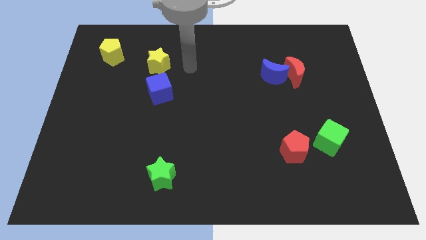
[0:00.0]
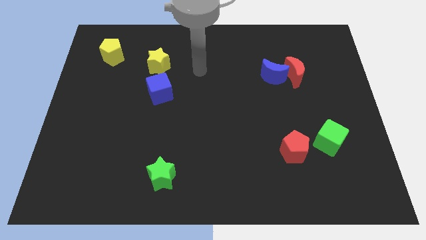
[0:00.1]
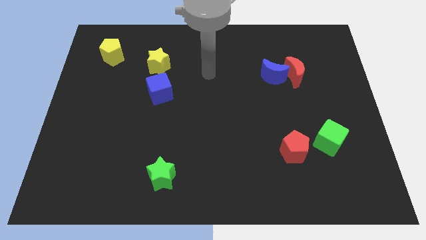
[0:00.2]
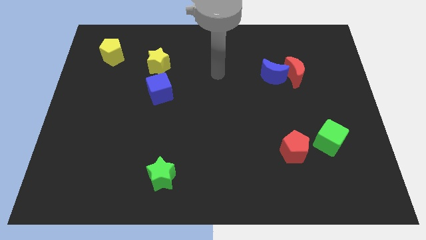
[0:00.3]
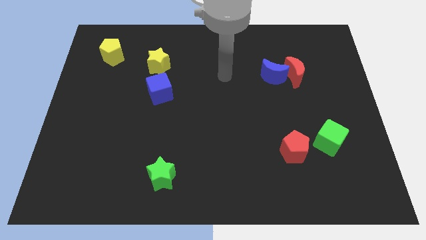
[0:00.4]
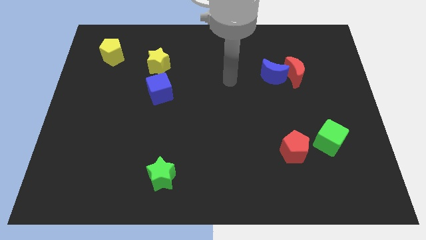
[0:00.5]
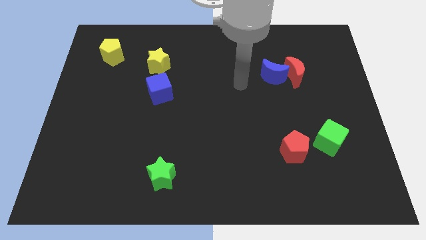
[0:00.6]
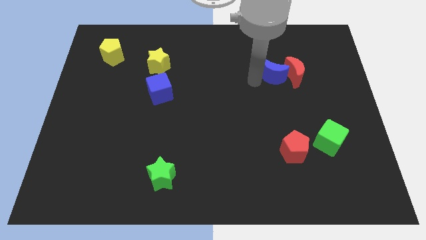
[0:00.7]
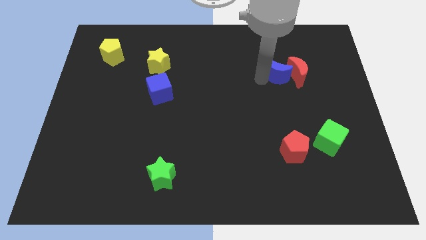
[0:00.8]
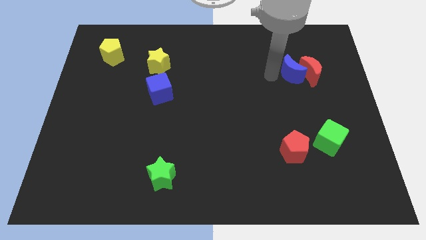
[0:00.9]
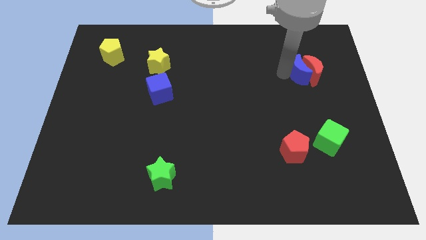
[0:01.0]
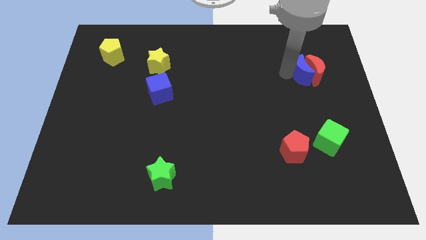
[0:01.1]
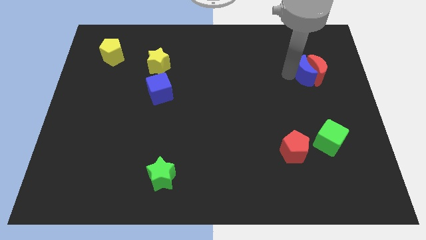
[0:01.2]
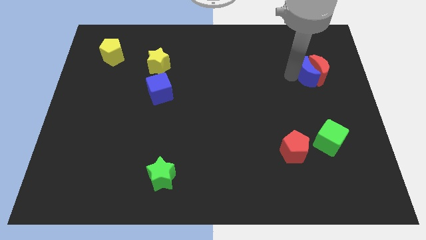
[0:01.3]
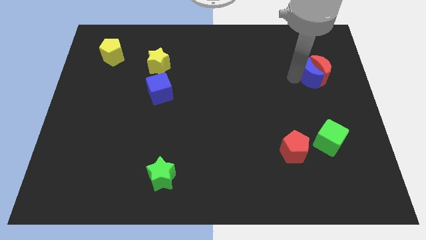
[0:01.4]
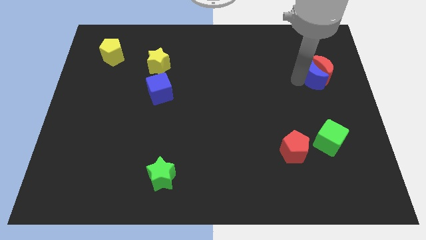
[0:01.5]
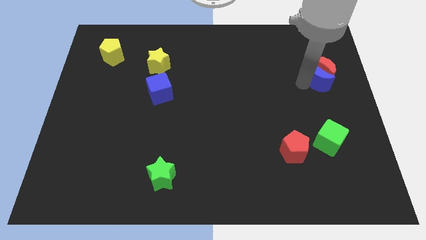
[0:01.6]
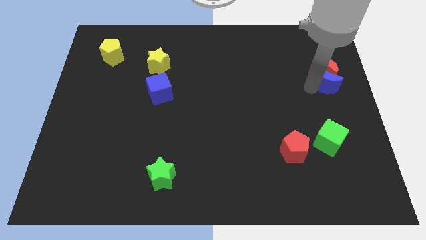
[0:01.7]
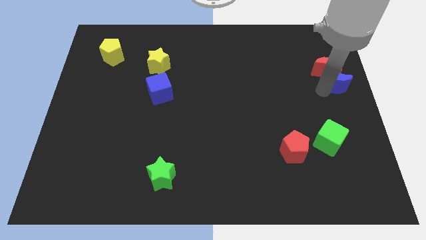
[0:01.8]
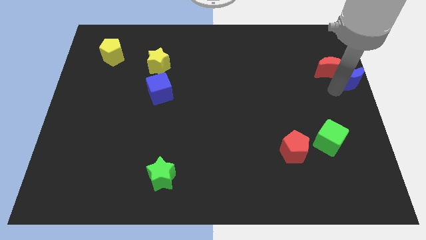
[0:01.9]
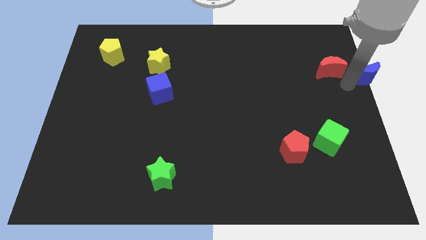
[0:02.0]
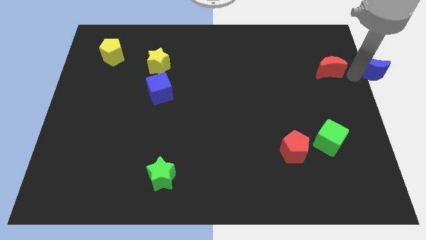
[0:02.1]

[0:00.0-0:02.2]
pull the red moon apart from the blue moon

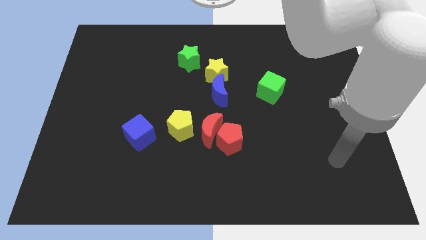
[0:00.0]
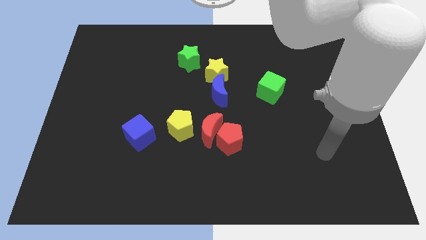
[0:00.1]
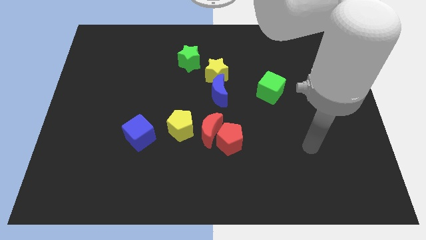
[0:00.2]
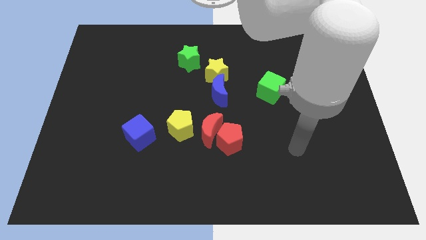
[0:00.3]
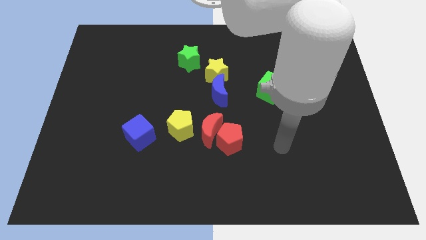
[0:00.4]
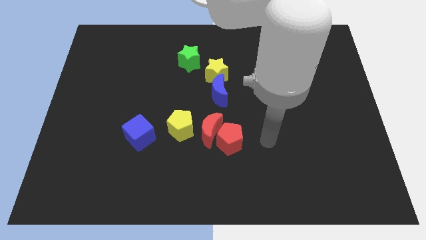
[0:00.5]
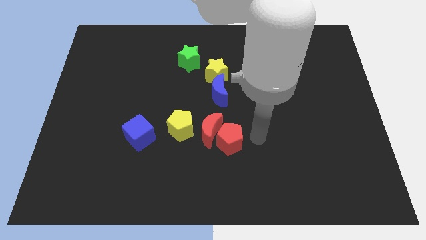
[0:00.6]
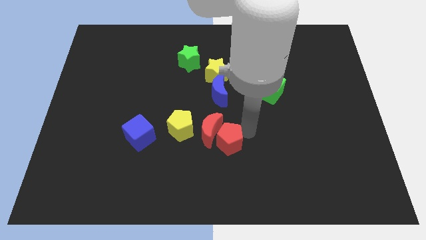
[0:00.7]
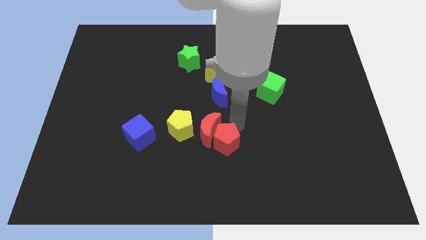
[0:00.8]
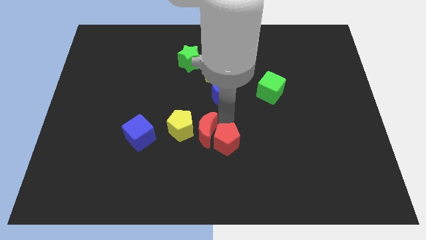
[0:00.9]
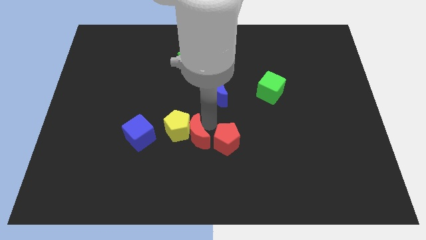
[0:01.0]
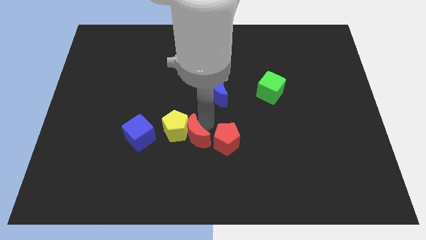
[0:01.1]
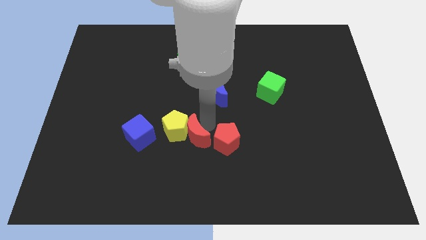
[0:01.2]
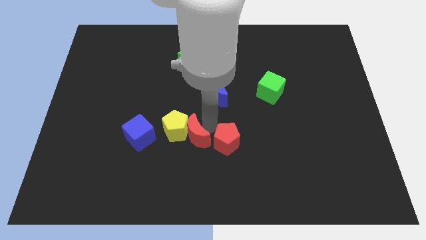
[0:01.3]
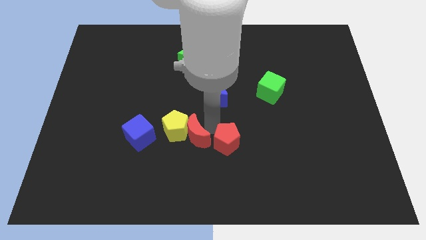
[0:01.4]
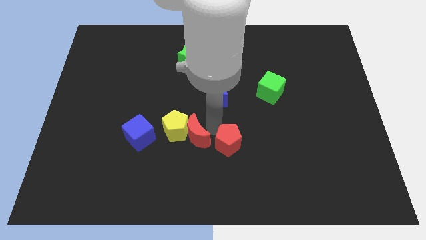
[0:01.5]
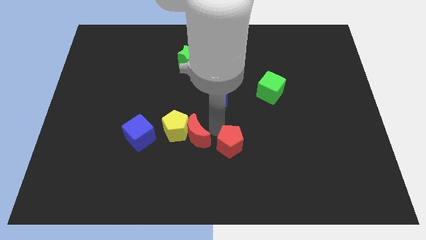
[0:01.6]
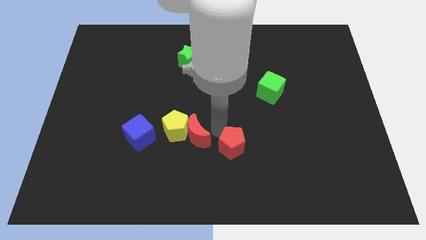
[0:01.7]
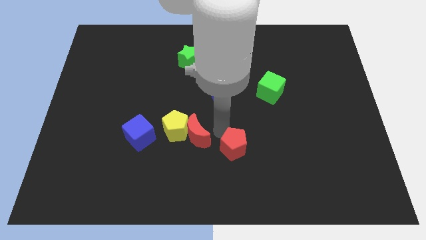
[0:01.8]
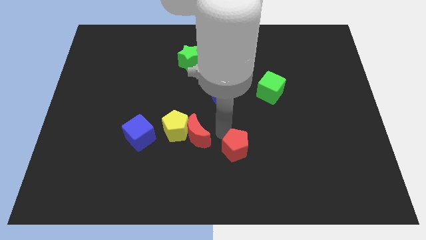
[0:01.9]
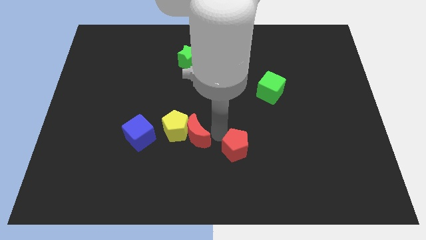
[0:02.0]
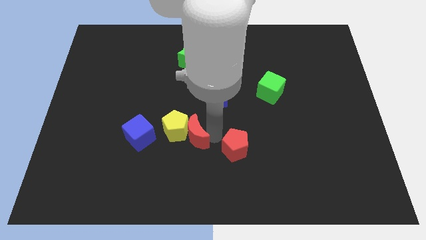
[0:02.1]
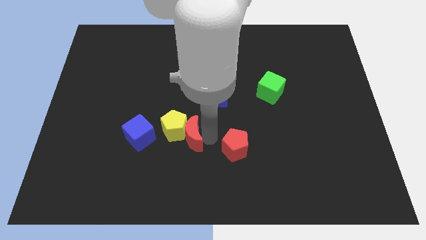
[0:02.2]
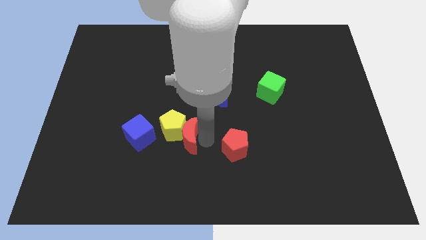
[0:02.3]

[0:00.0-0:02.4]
separate the red pentagon from the red moon

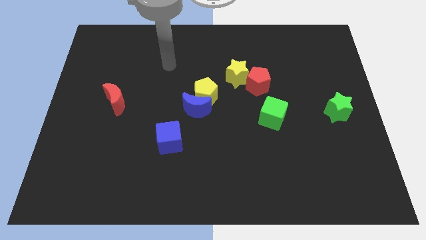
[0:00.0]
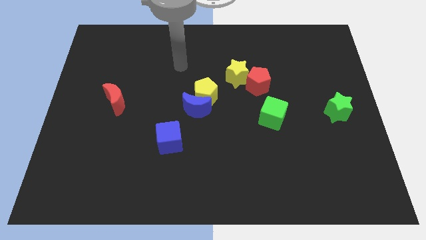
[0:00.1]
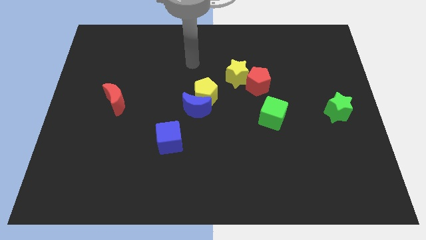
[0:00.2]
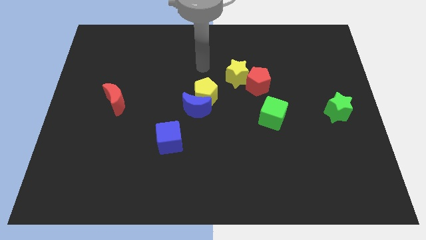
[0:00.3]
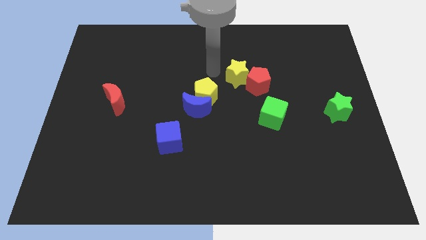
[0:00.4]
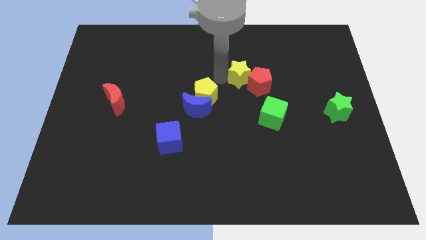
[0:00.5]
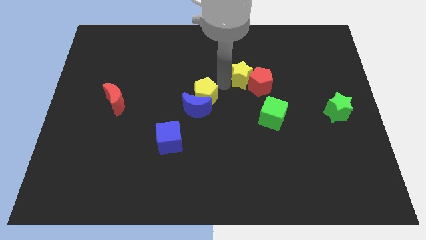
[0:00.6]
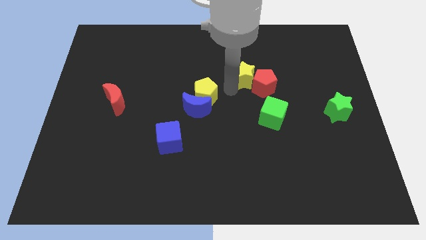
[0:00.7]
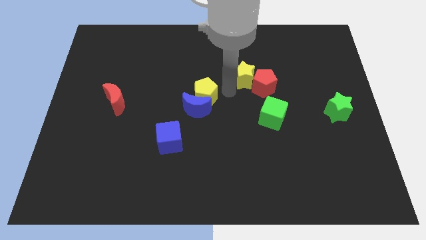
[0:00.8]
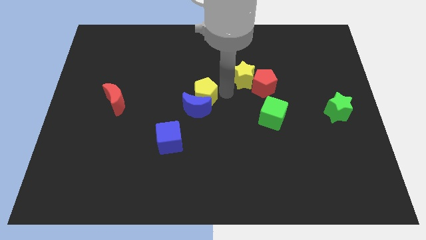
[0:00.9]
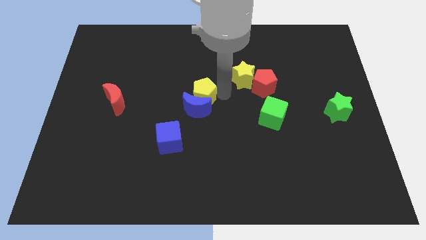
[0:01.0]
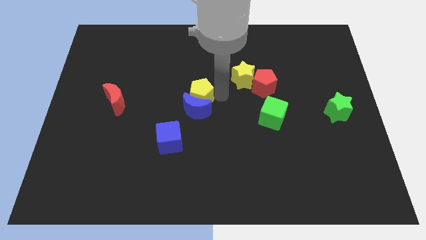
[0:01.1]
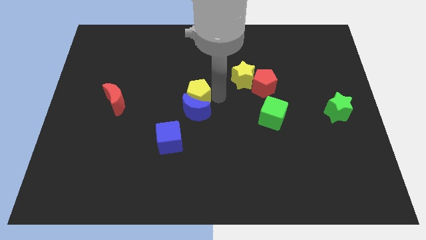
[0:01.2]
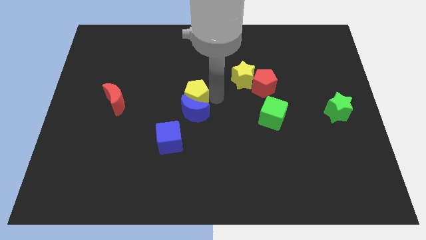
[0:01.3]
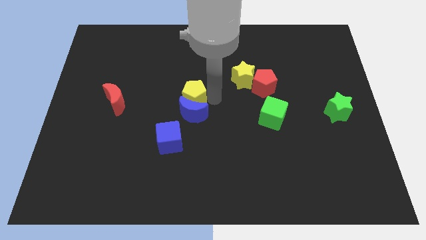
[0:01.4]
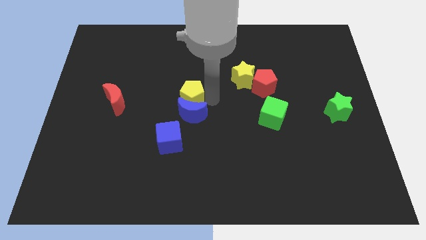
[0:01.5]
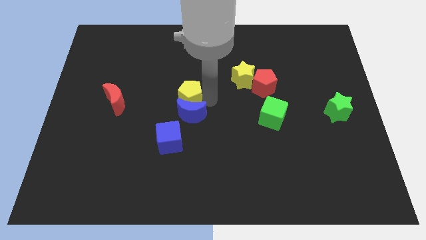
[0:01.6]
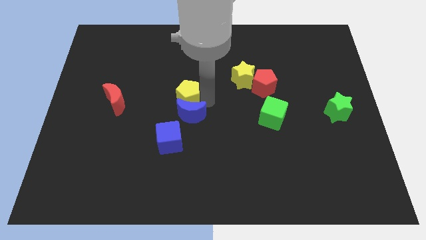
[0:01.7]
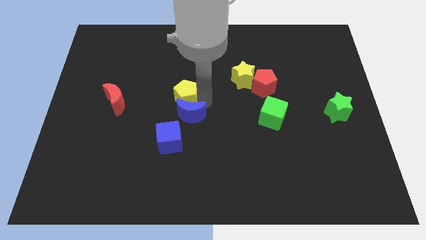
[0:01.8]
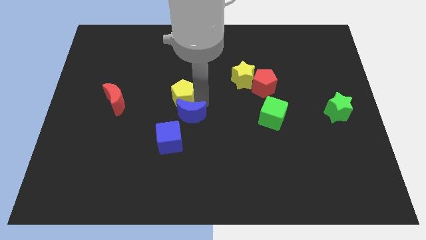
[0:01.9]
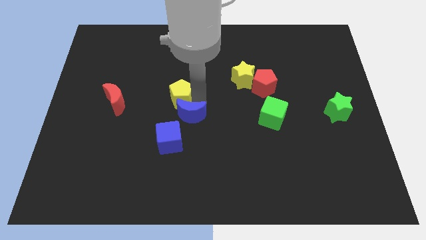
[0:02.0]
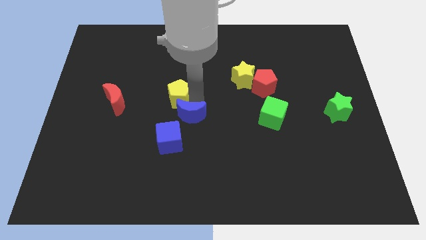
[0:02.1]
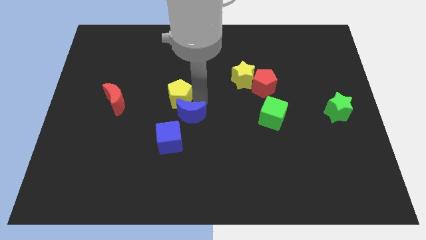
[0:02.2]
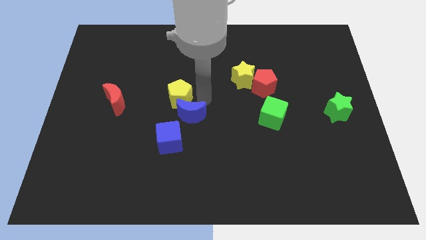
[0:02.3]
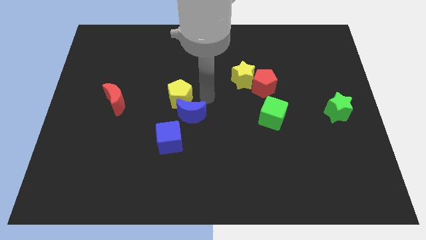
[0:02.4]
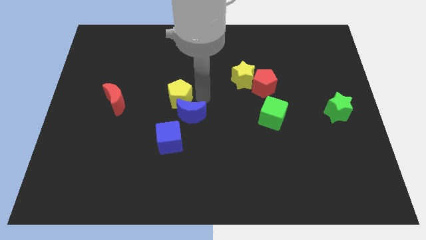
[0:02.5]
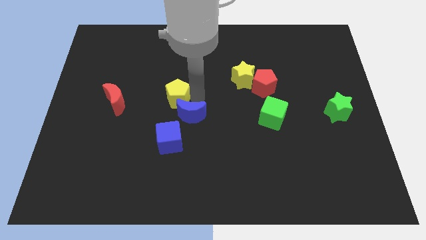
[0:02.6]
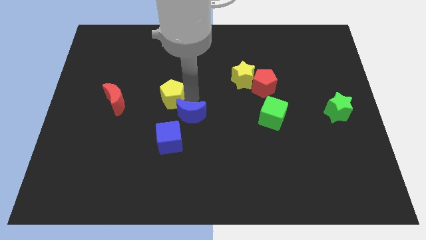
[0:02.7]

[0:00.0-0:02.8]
move the yellow pentagon away from the blue moon and yellow star

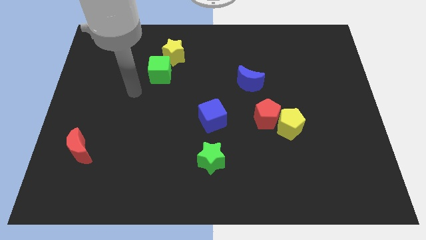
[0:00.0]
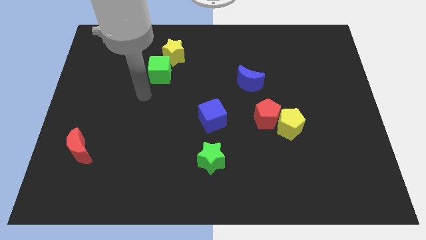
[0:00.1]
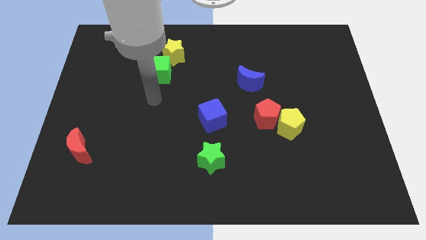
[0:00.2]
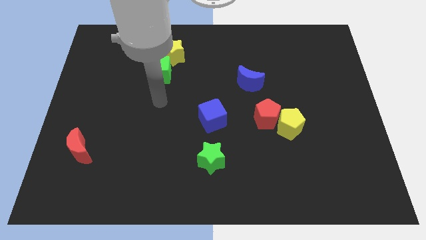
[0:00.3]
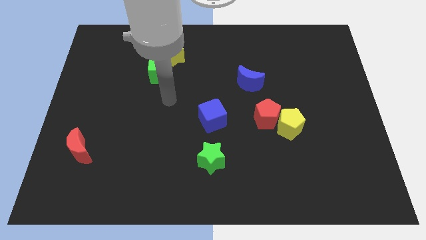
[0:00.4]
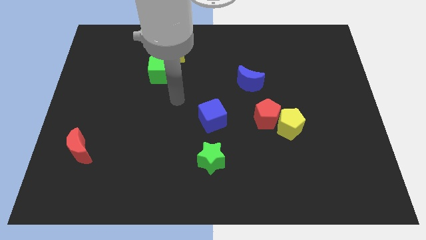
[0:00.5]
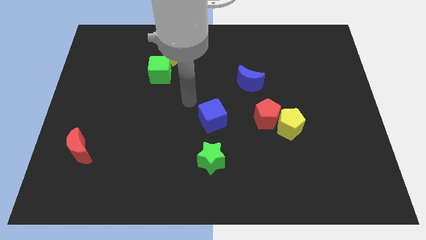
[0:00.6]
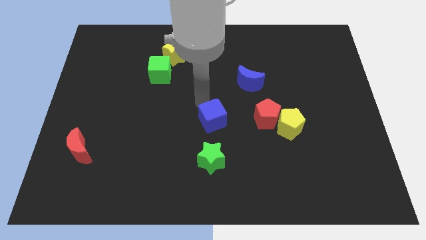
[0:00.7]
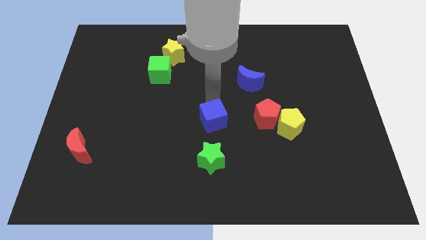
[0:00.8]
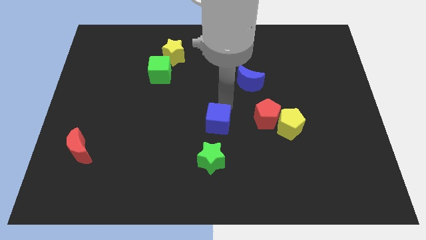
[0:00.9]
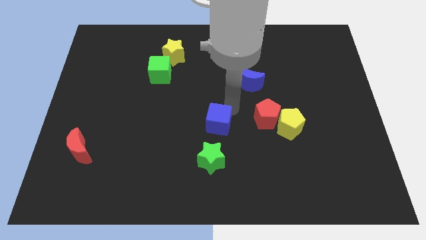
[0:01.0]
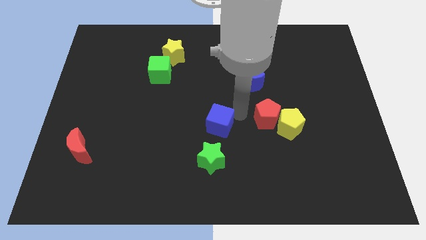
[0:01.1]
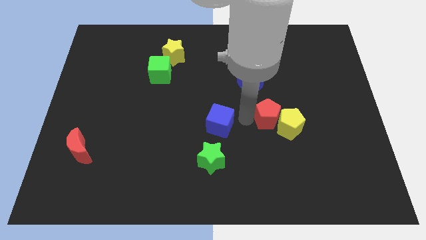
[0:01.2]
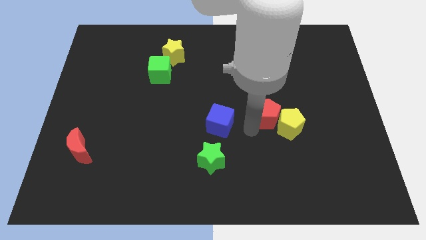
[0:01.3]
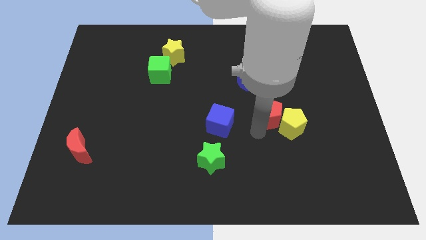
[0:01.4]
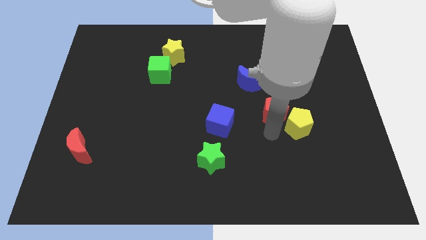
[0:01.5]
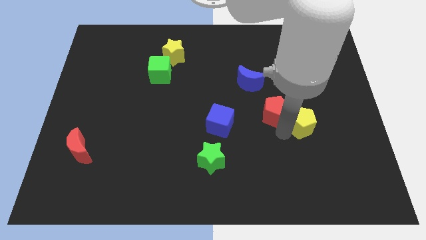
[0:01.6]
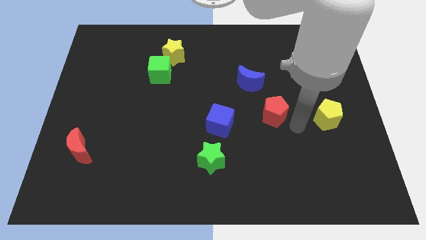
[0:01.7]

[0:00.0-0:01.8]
separate the red pentagon from the yellow pentagon
